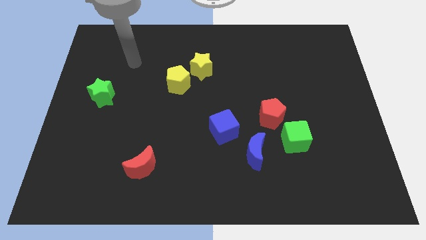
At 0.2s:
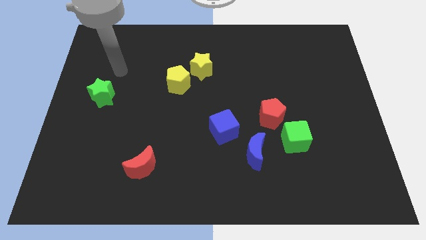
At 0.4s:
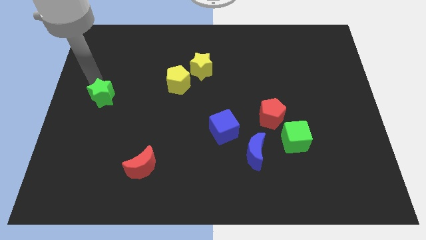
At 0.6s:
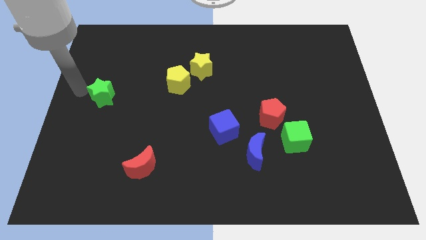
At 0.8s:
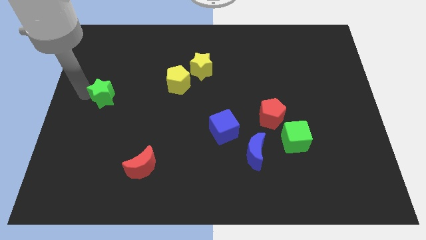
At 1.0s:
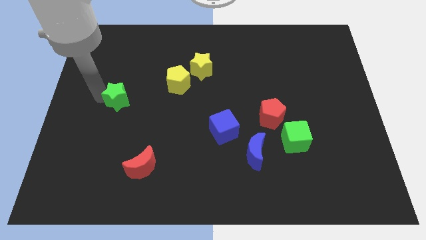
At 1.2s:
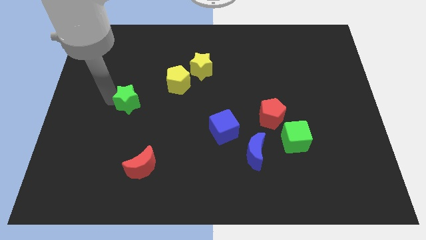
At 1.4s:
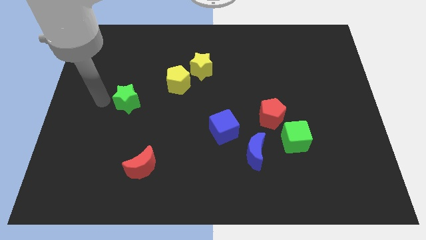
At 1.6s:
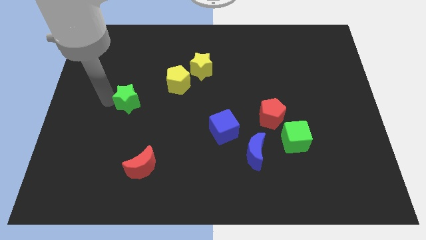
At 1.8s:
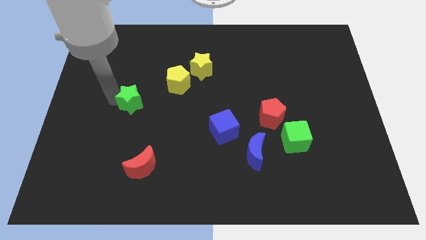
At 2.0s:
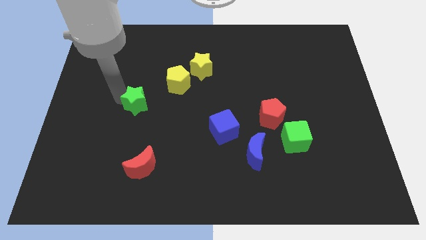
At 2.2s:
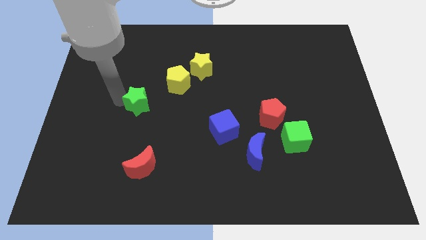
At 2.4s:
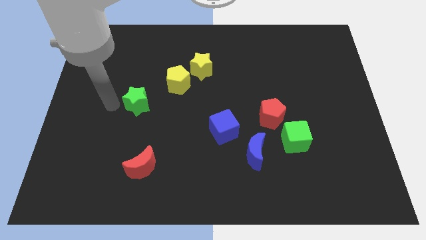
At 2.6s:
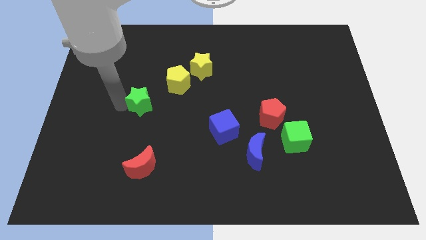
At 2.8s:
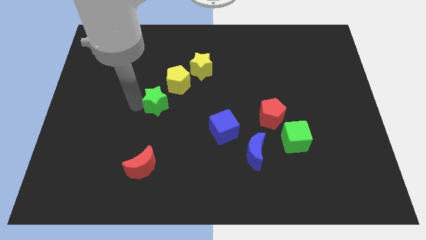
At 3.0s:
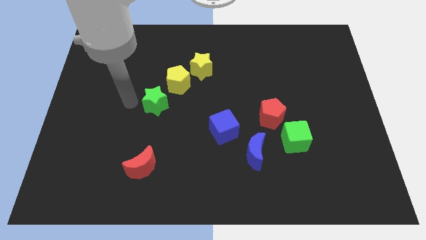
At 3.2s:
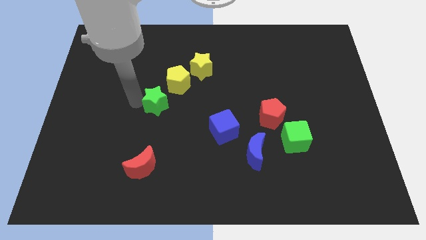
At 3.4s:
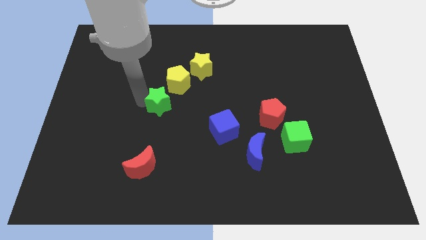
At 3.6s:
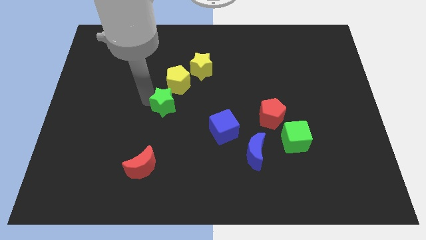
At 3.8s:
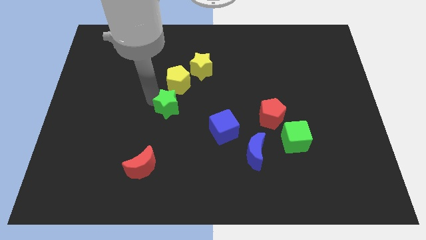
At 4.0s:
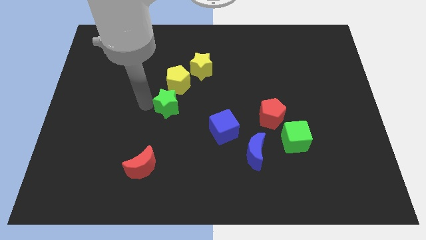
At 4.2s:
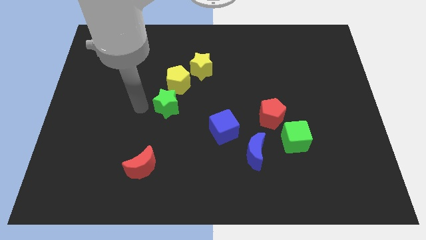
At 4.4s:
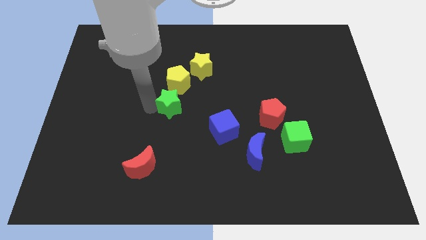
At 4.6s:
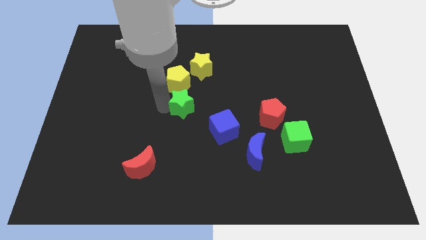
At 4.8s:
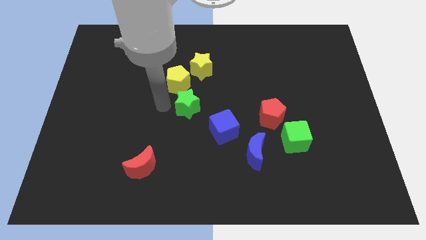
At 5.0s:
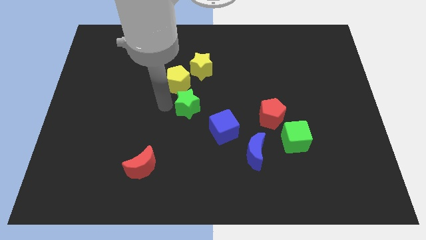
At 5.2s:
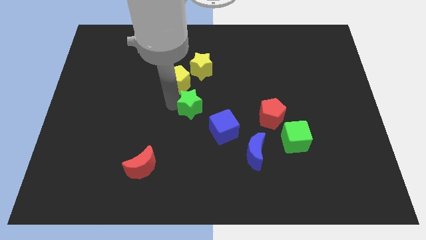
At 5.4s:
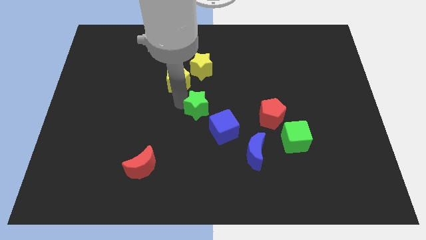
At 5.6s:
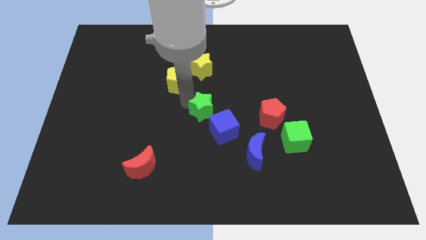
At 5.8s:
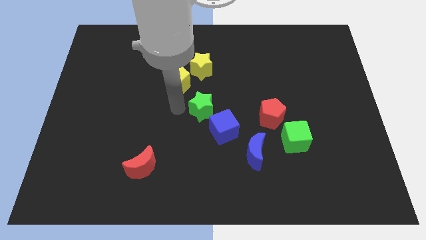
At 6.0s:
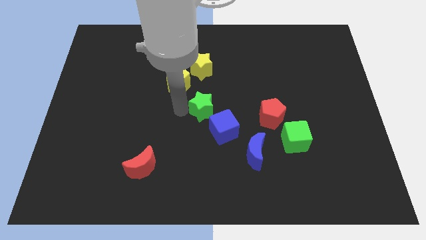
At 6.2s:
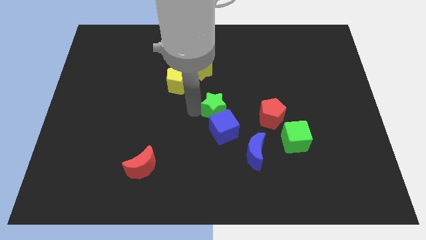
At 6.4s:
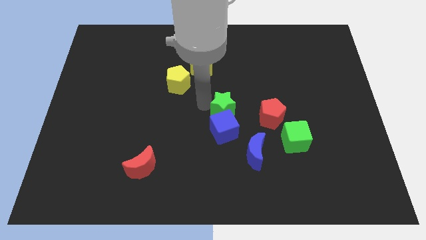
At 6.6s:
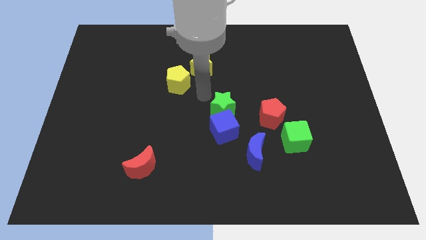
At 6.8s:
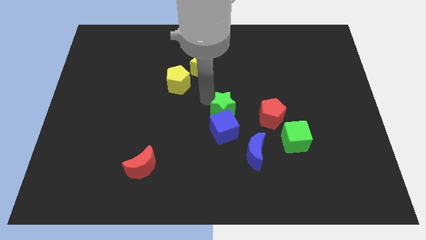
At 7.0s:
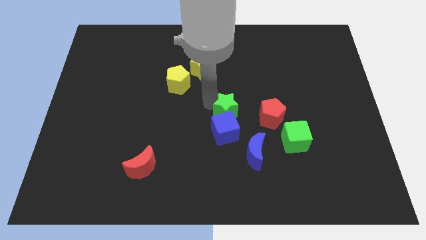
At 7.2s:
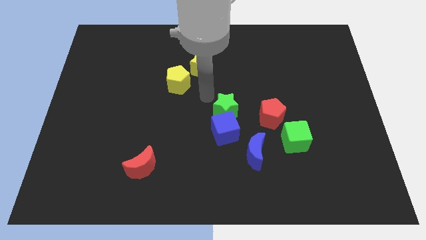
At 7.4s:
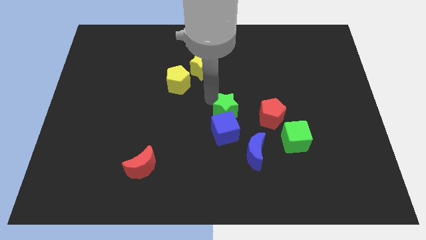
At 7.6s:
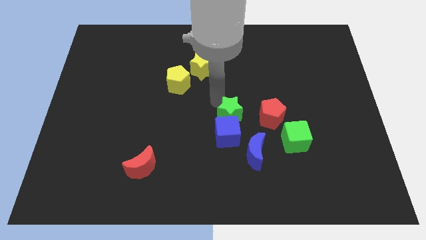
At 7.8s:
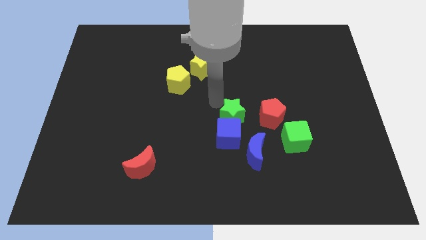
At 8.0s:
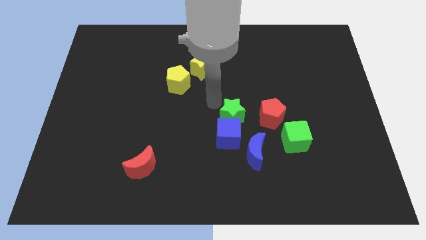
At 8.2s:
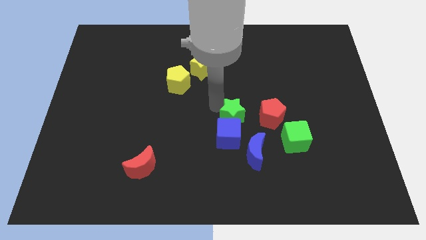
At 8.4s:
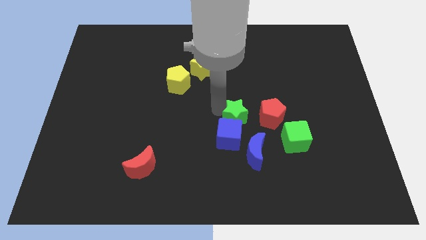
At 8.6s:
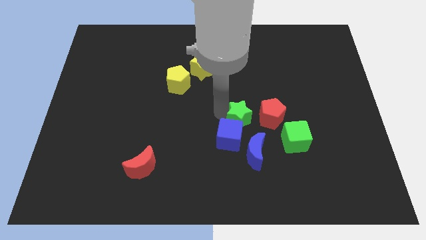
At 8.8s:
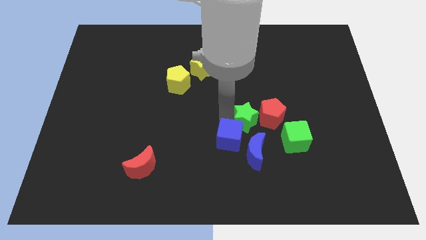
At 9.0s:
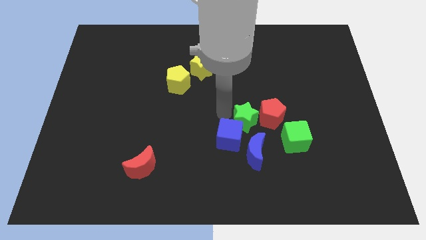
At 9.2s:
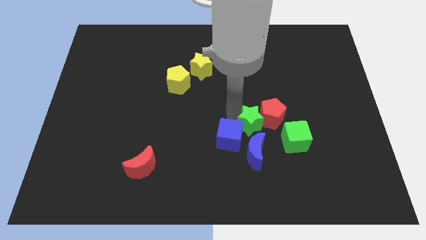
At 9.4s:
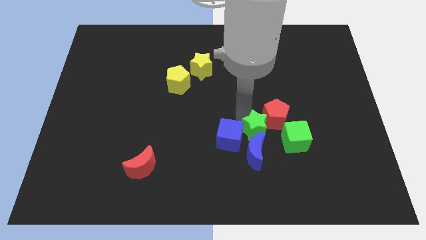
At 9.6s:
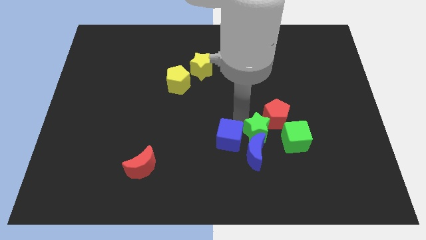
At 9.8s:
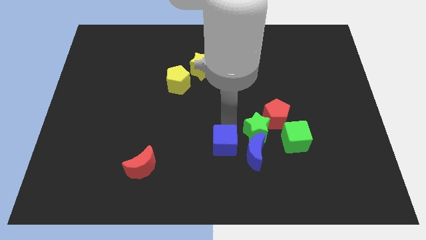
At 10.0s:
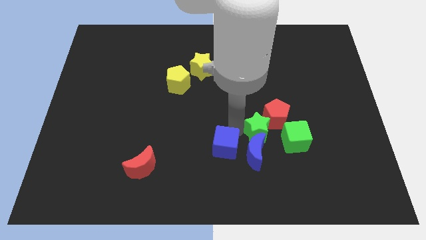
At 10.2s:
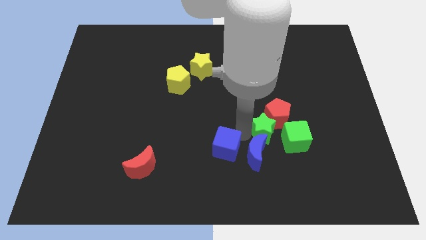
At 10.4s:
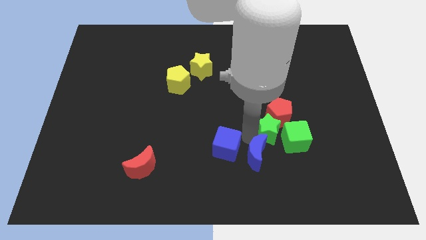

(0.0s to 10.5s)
push the green star towards the green cube

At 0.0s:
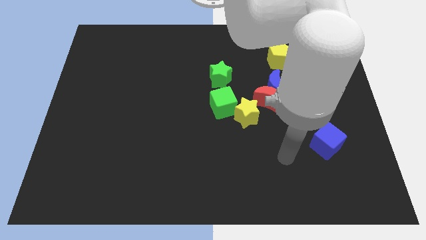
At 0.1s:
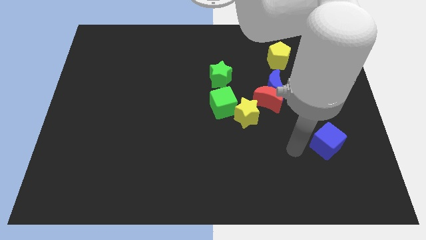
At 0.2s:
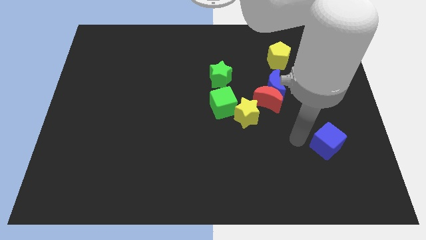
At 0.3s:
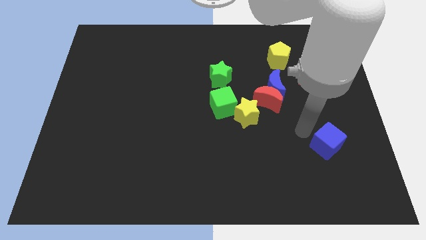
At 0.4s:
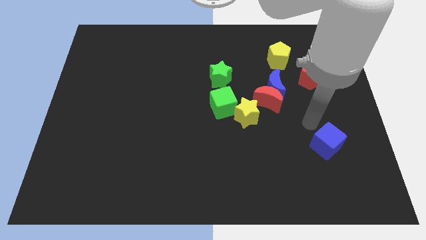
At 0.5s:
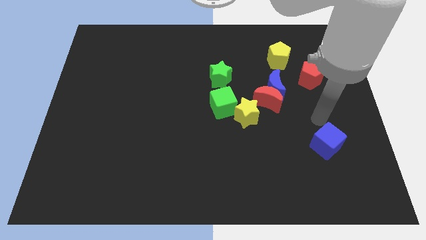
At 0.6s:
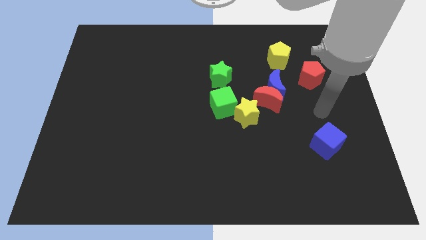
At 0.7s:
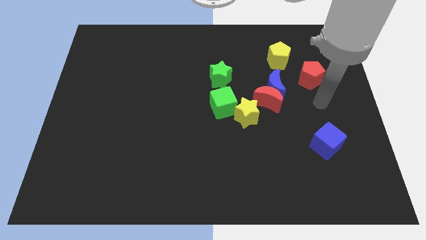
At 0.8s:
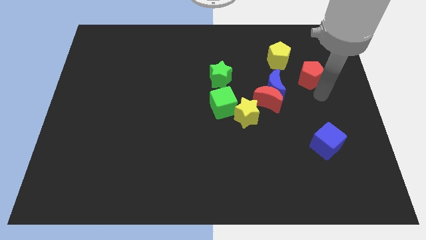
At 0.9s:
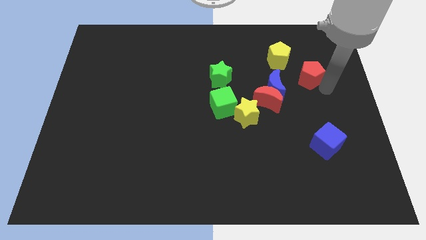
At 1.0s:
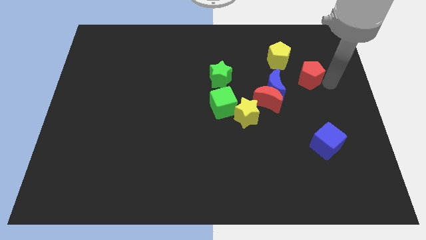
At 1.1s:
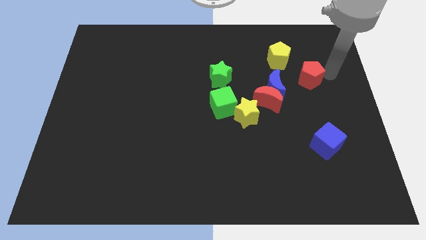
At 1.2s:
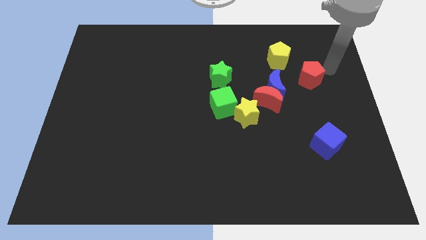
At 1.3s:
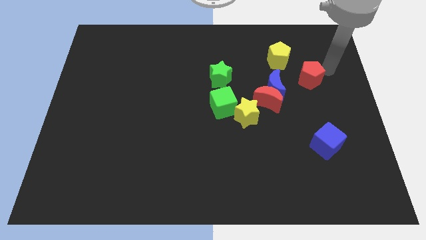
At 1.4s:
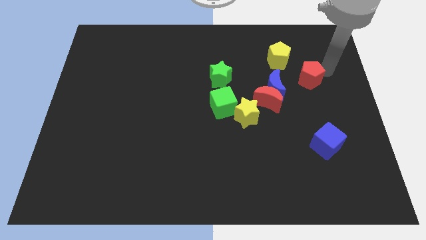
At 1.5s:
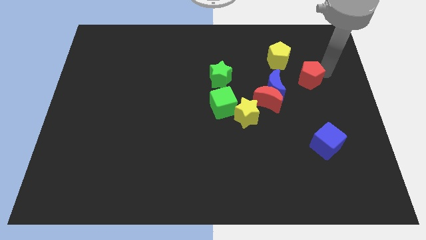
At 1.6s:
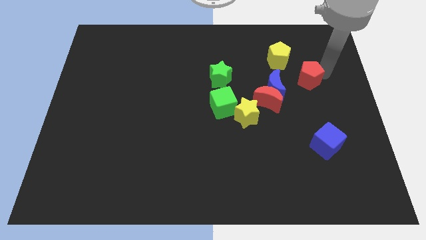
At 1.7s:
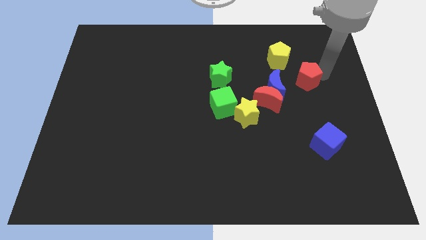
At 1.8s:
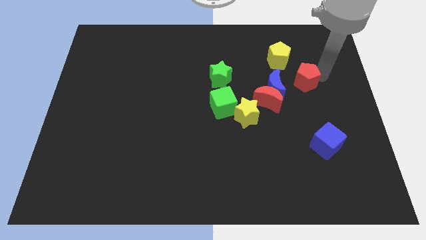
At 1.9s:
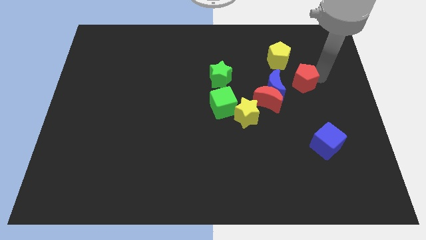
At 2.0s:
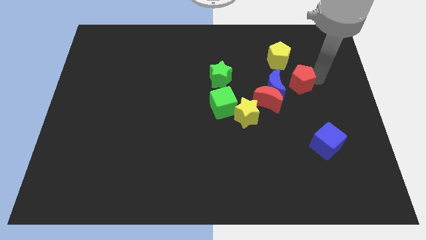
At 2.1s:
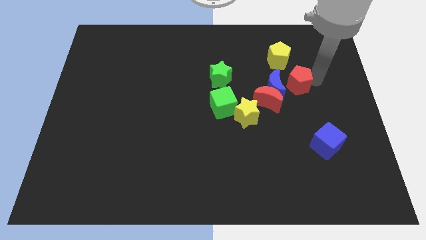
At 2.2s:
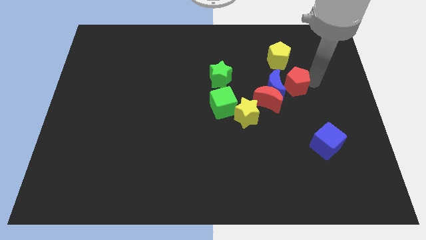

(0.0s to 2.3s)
push the red pentagon towards the blue moon

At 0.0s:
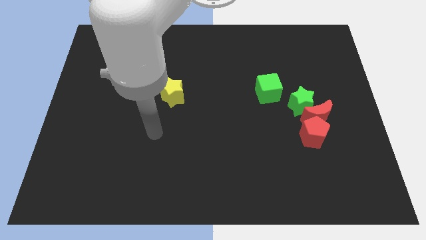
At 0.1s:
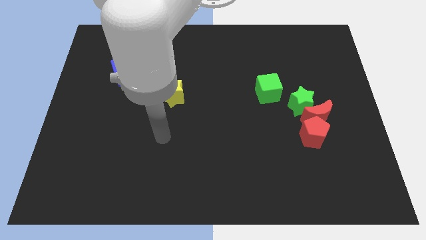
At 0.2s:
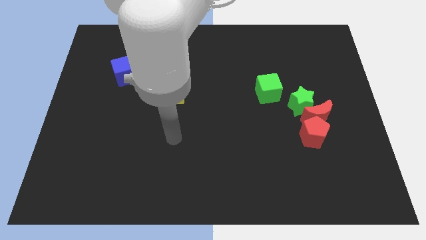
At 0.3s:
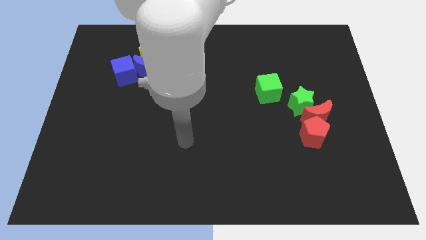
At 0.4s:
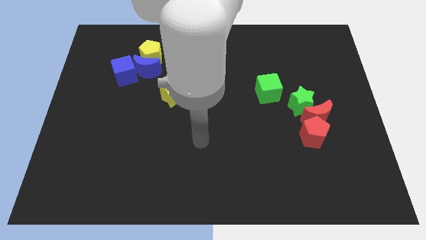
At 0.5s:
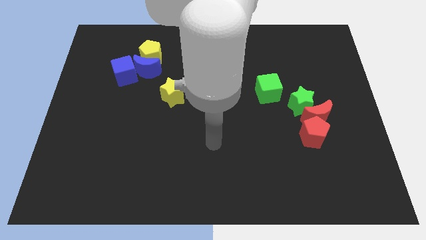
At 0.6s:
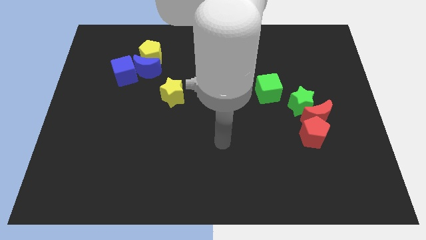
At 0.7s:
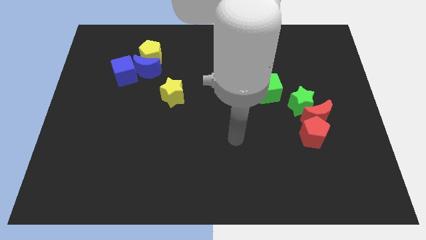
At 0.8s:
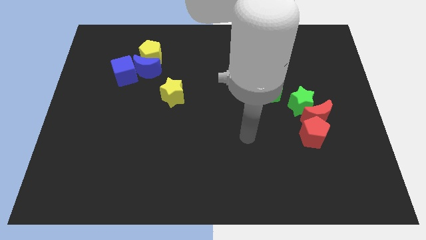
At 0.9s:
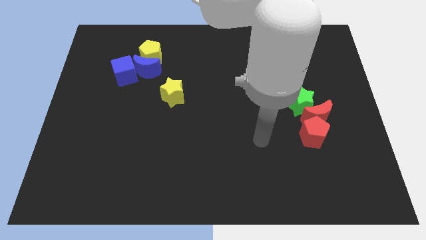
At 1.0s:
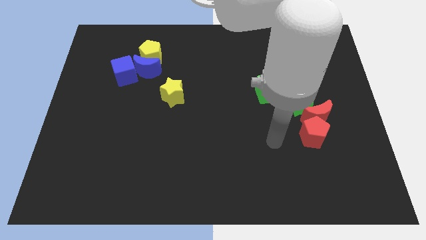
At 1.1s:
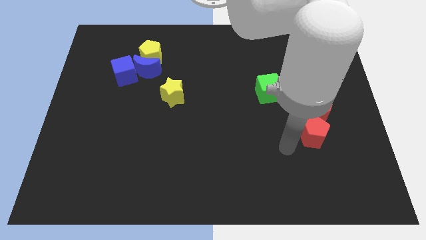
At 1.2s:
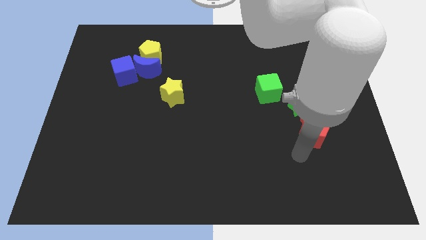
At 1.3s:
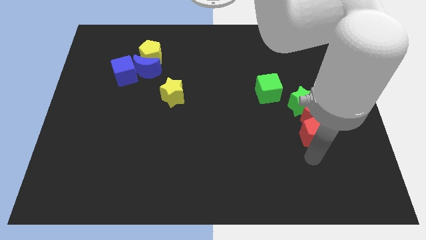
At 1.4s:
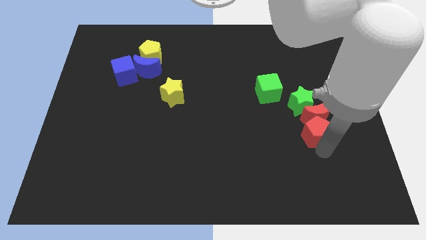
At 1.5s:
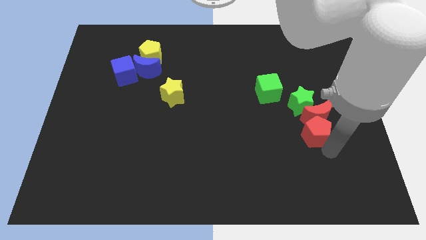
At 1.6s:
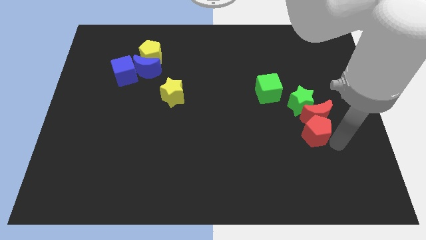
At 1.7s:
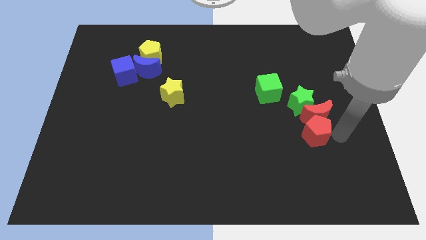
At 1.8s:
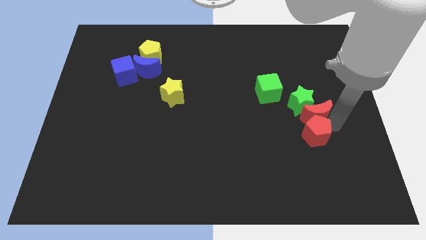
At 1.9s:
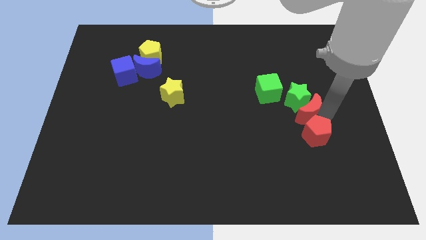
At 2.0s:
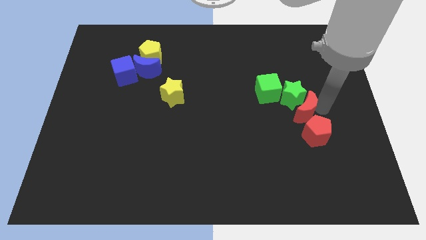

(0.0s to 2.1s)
slide the green star close to the green cube
